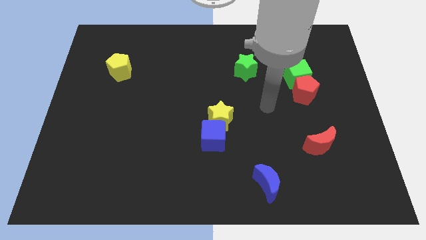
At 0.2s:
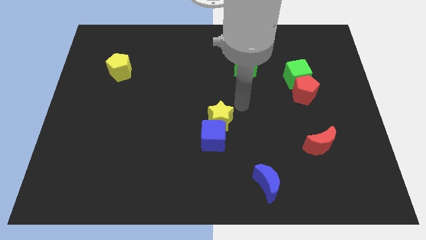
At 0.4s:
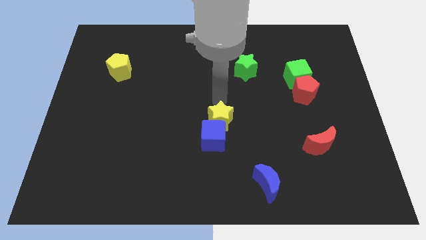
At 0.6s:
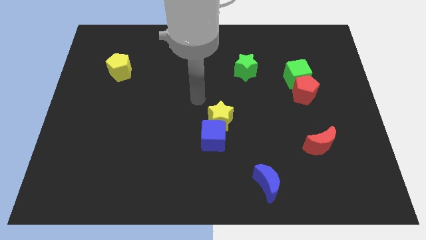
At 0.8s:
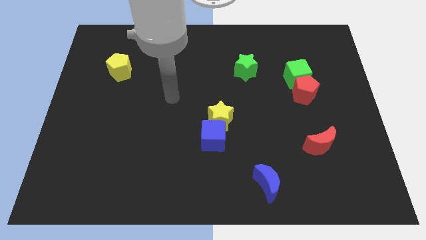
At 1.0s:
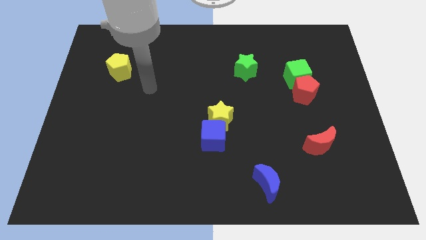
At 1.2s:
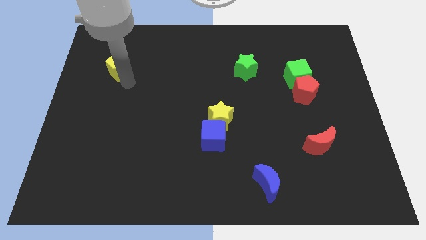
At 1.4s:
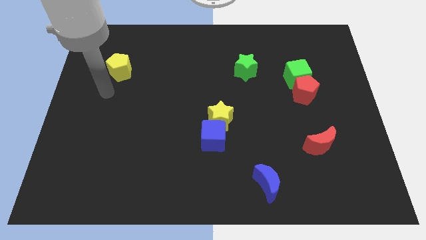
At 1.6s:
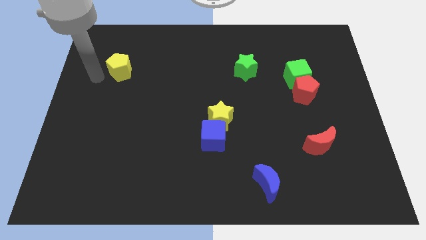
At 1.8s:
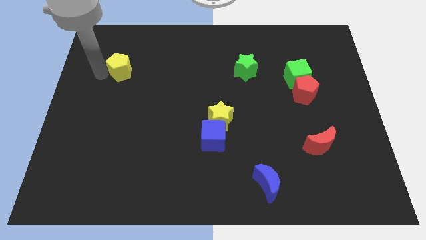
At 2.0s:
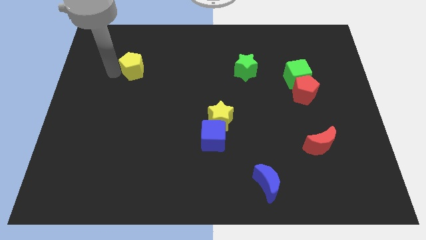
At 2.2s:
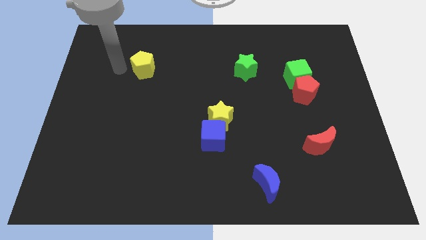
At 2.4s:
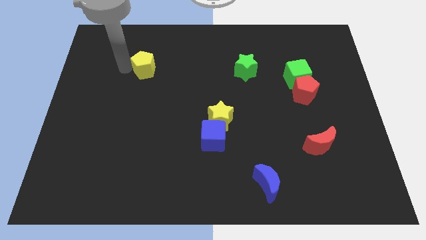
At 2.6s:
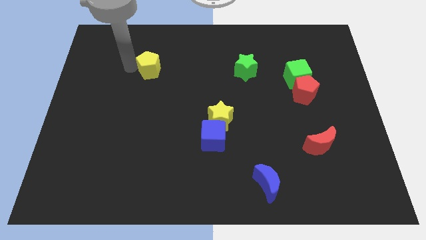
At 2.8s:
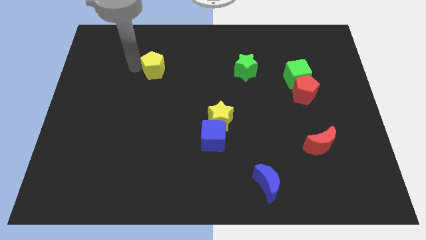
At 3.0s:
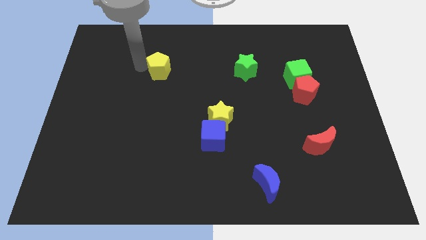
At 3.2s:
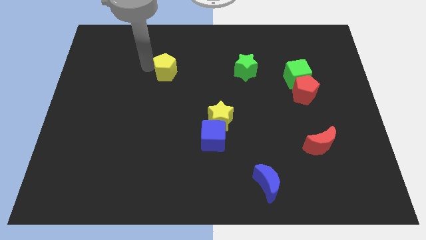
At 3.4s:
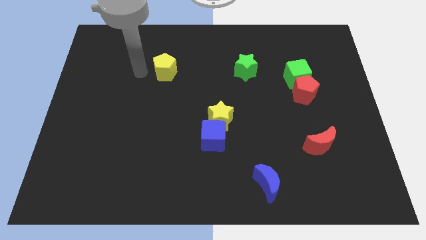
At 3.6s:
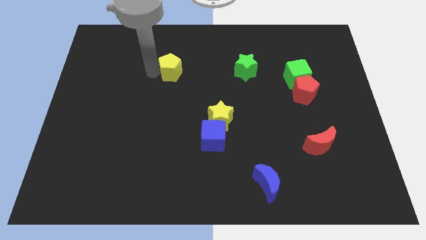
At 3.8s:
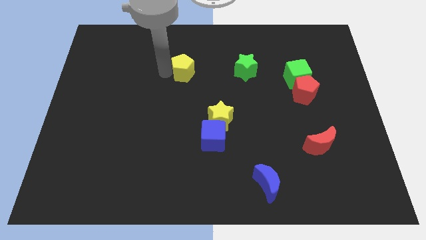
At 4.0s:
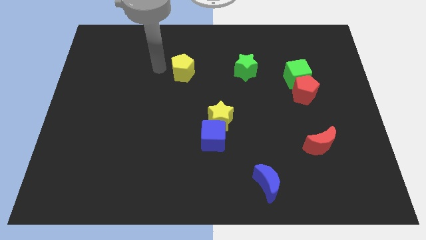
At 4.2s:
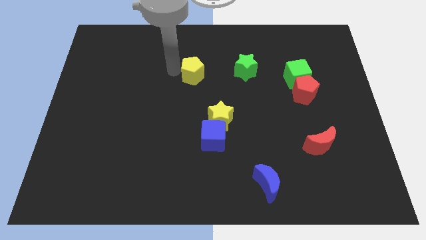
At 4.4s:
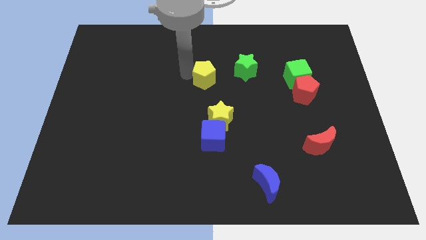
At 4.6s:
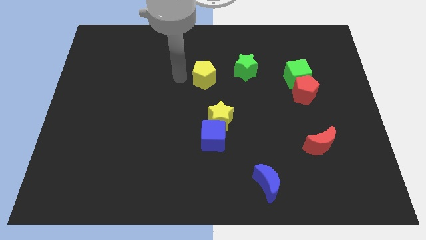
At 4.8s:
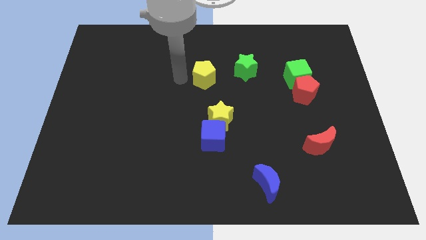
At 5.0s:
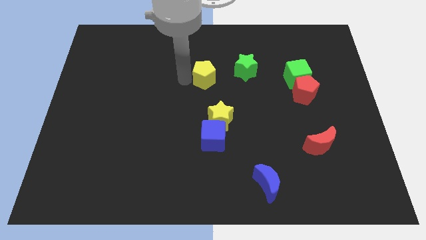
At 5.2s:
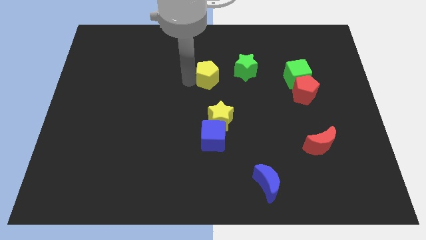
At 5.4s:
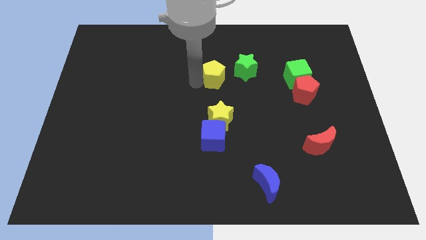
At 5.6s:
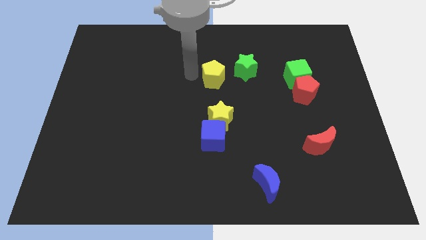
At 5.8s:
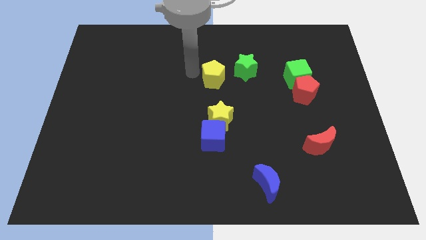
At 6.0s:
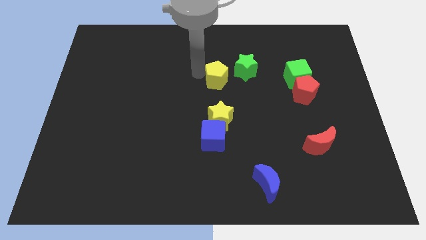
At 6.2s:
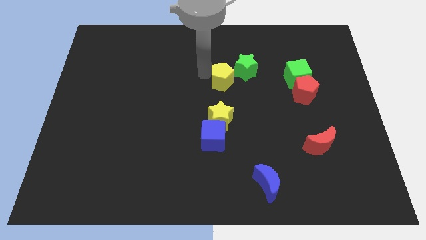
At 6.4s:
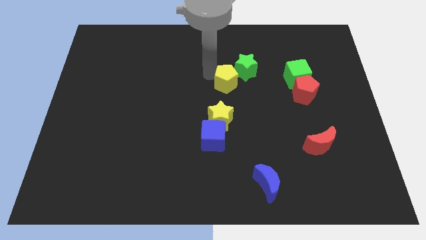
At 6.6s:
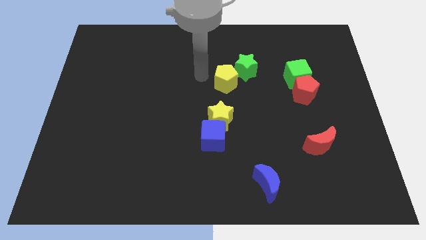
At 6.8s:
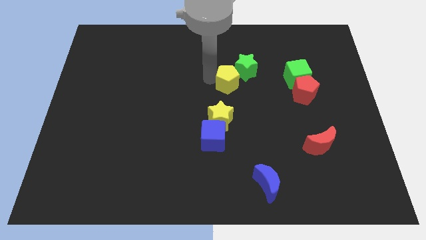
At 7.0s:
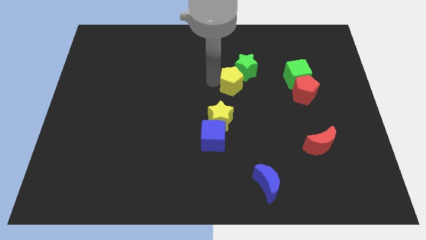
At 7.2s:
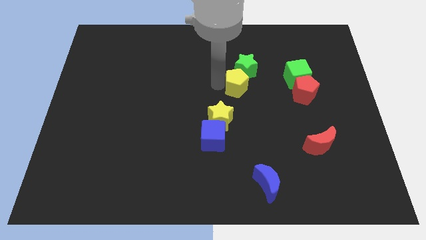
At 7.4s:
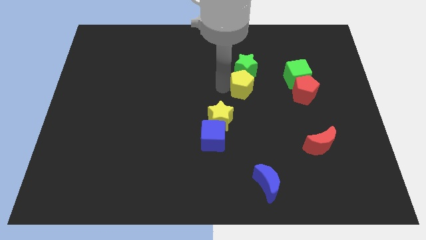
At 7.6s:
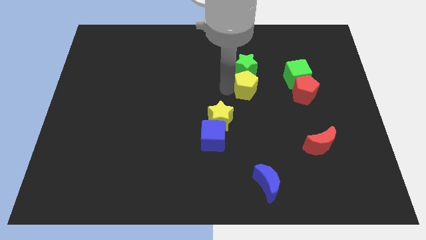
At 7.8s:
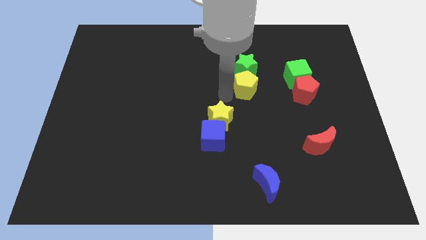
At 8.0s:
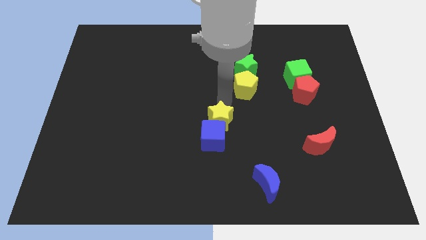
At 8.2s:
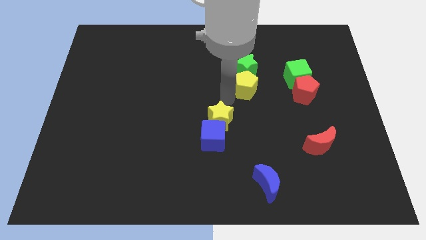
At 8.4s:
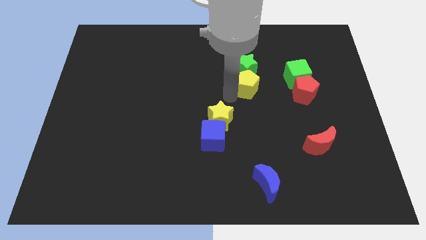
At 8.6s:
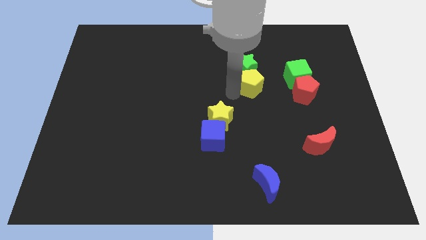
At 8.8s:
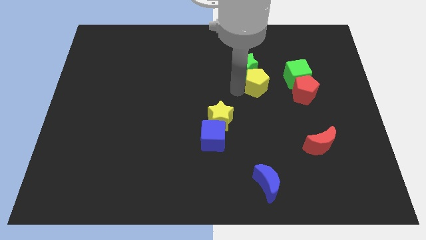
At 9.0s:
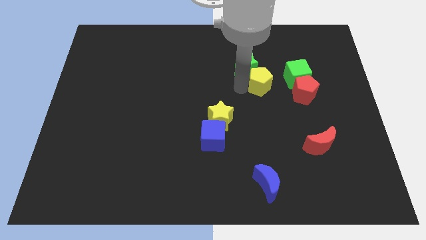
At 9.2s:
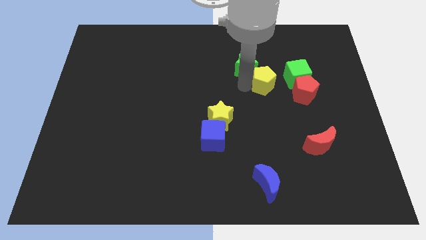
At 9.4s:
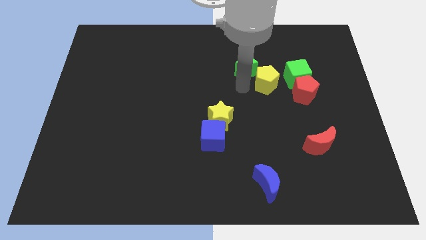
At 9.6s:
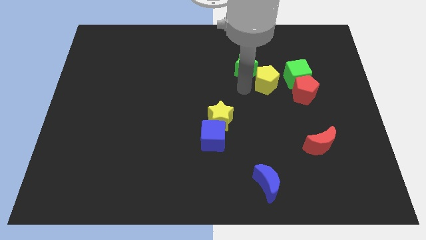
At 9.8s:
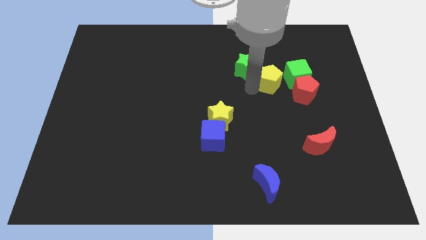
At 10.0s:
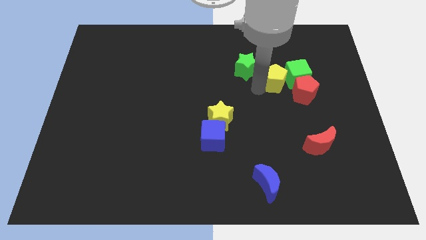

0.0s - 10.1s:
move the yellow pentagon close to the green cube

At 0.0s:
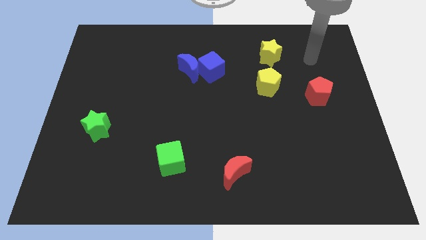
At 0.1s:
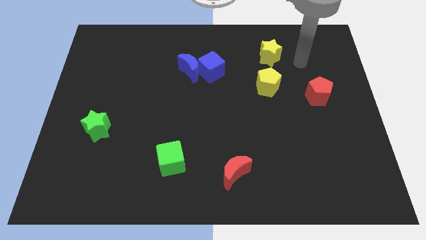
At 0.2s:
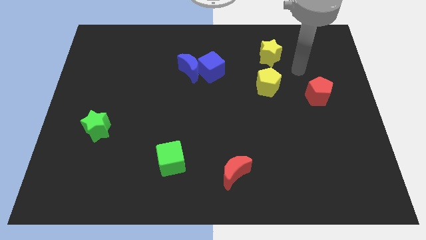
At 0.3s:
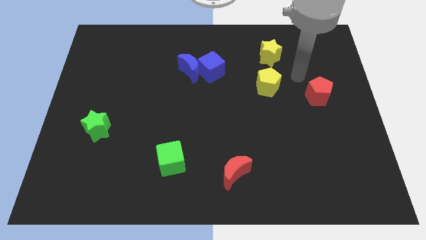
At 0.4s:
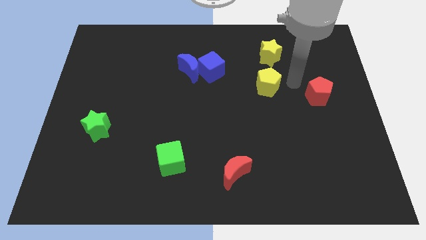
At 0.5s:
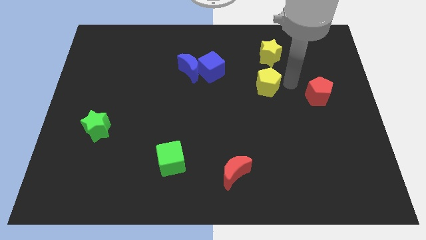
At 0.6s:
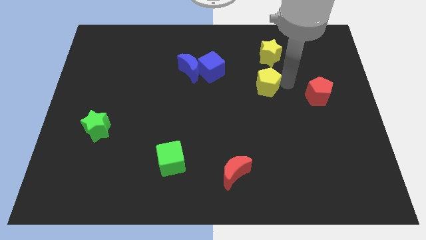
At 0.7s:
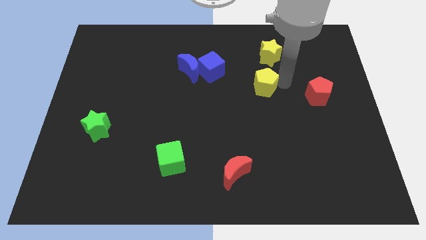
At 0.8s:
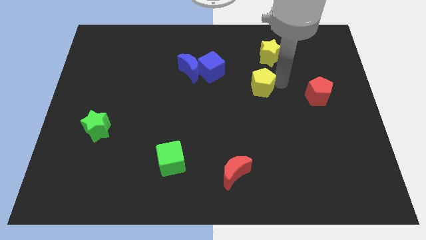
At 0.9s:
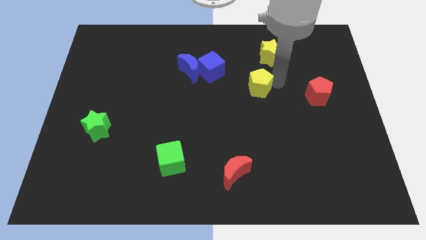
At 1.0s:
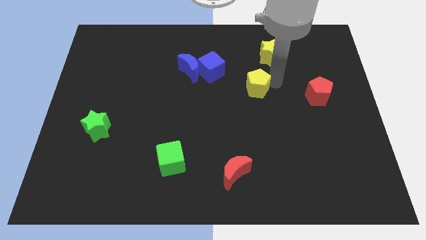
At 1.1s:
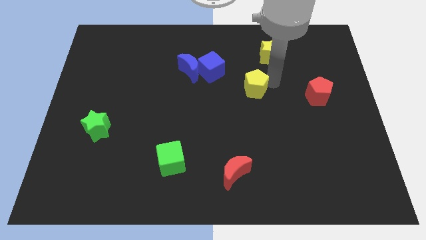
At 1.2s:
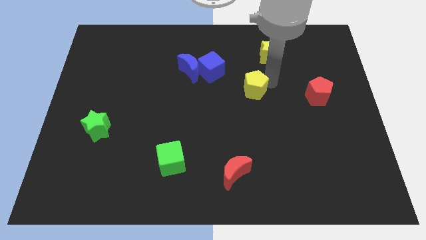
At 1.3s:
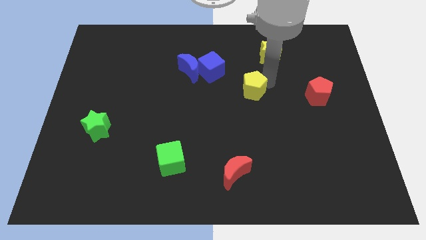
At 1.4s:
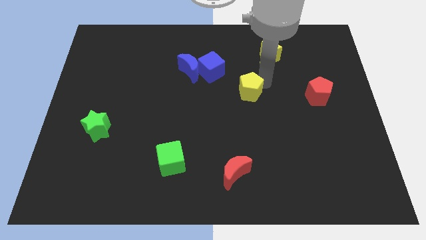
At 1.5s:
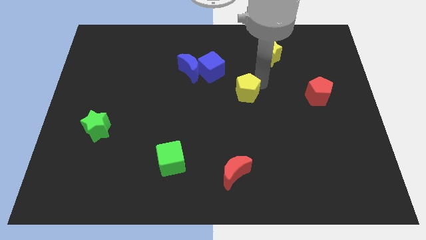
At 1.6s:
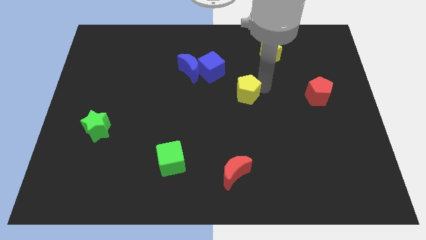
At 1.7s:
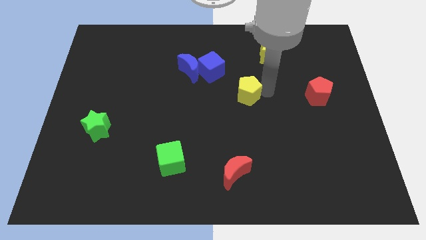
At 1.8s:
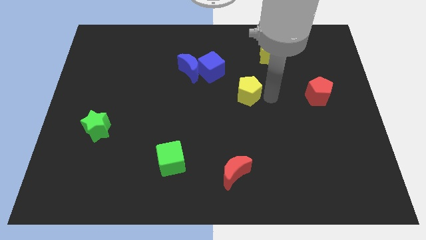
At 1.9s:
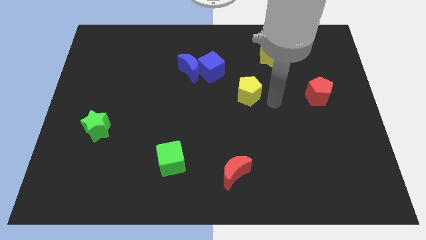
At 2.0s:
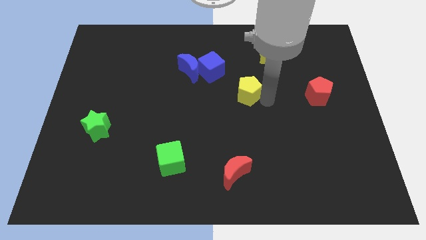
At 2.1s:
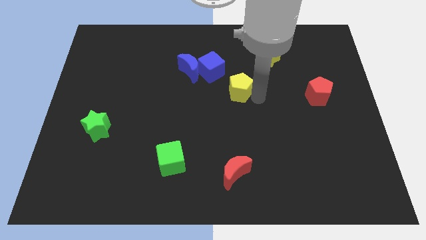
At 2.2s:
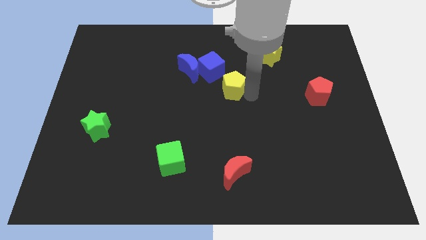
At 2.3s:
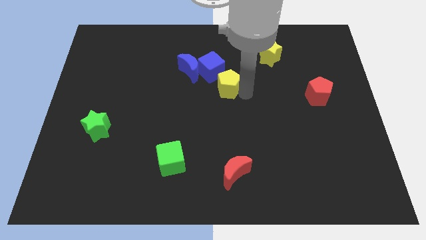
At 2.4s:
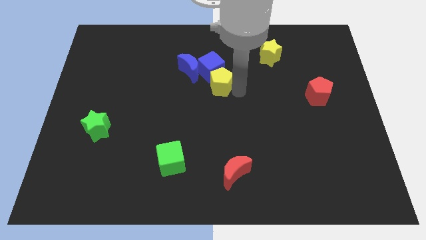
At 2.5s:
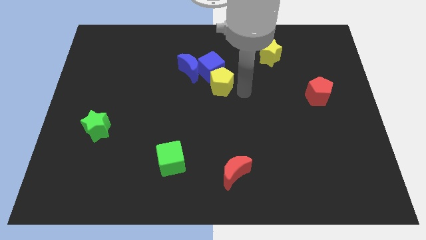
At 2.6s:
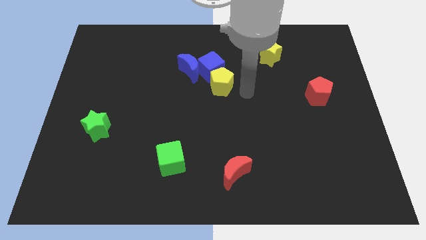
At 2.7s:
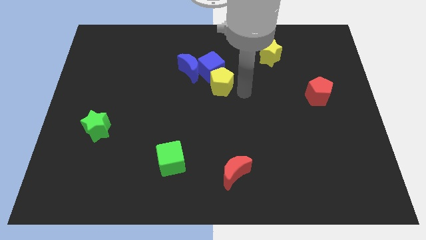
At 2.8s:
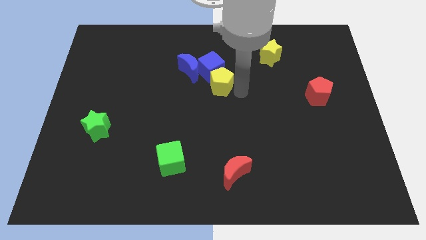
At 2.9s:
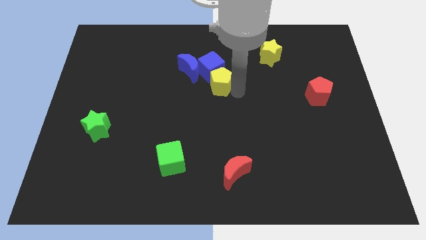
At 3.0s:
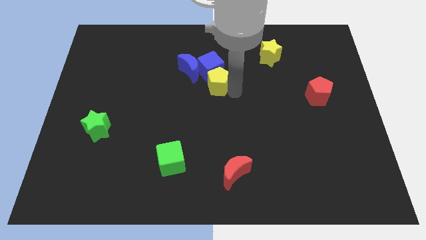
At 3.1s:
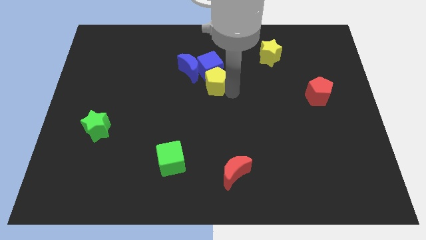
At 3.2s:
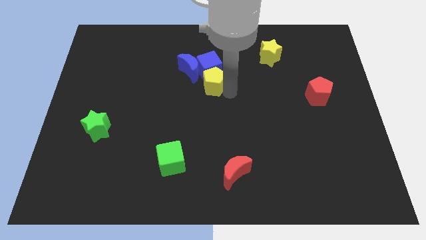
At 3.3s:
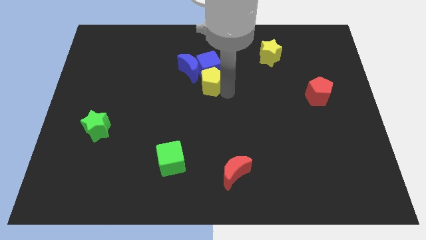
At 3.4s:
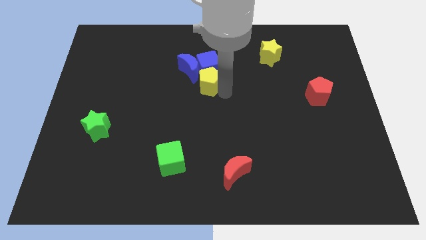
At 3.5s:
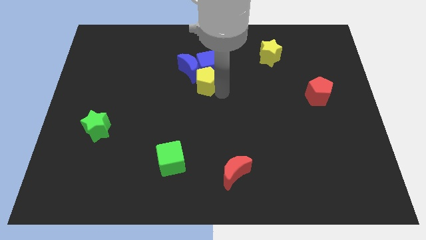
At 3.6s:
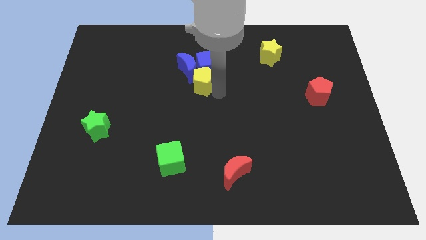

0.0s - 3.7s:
push the yellow pentagon to the blue moon
